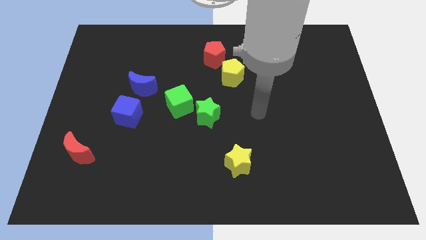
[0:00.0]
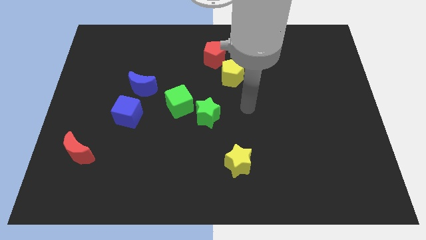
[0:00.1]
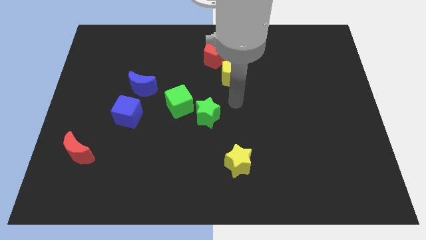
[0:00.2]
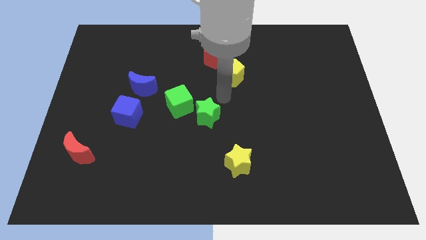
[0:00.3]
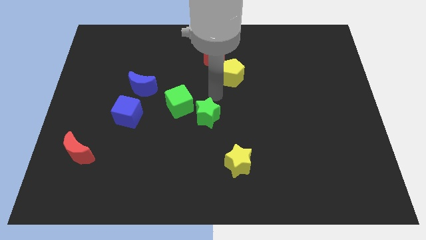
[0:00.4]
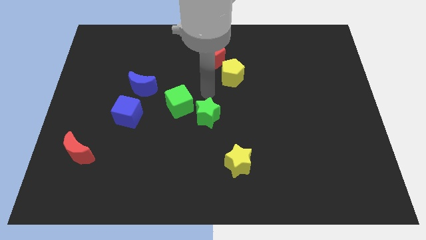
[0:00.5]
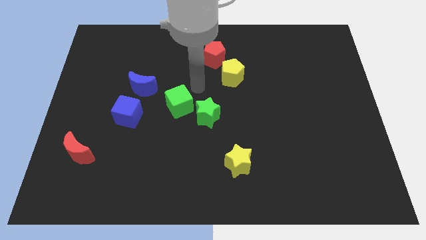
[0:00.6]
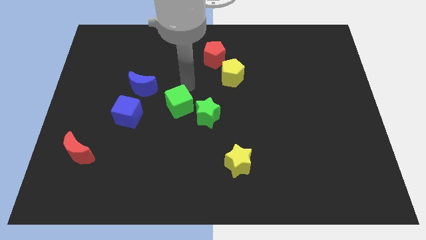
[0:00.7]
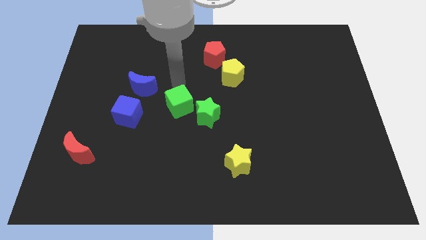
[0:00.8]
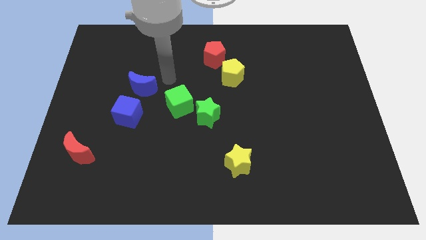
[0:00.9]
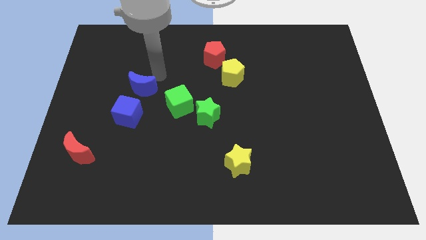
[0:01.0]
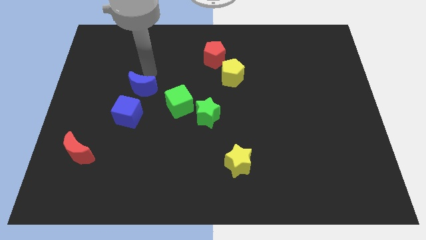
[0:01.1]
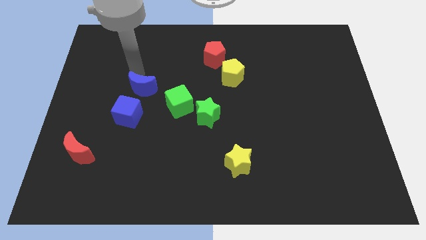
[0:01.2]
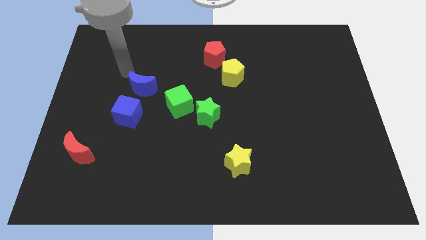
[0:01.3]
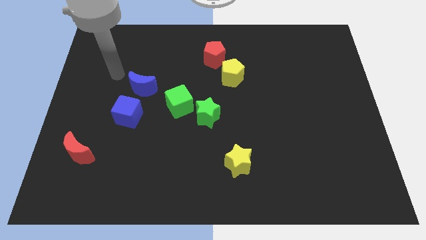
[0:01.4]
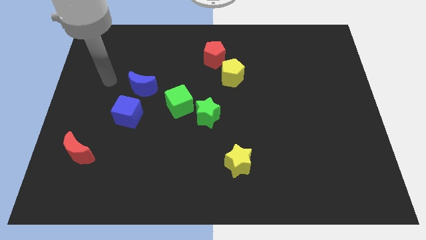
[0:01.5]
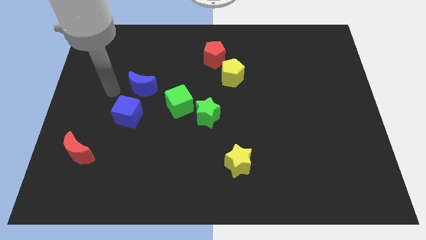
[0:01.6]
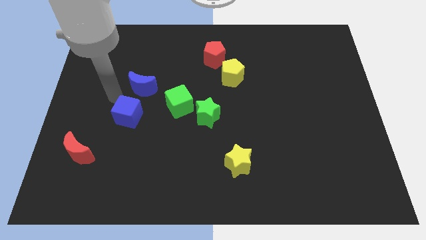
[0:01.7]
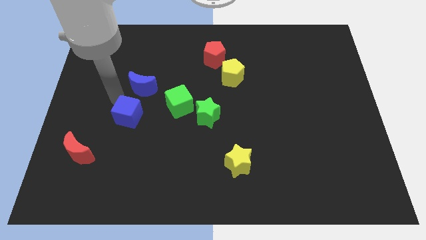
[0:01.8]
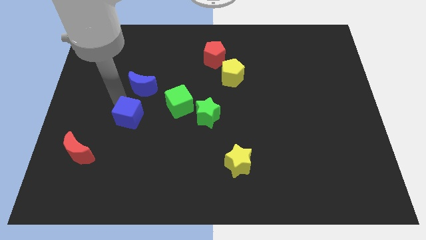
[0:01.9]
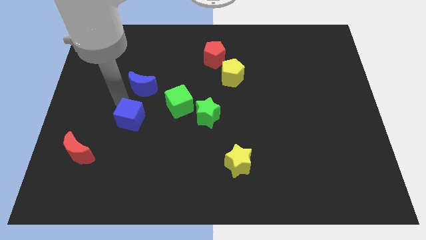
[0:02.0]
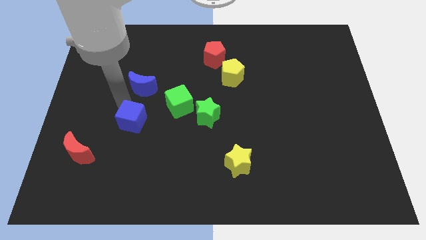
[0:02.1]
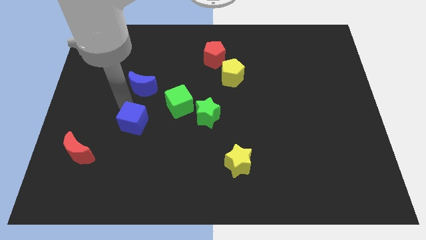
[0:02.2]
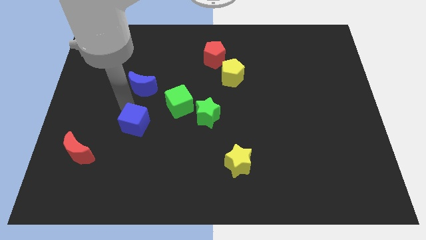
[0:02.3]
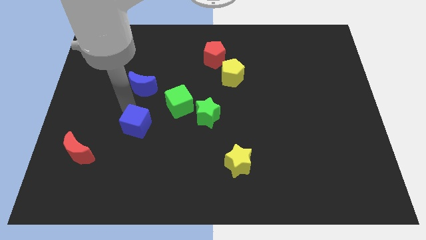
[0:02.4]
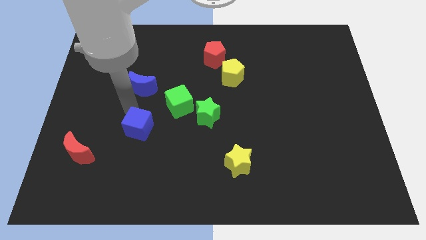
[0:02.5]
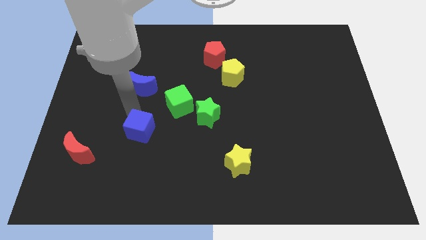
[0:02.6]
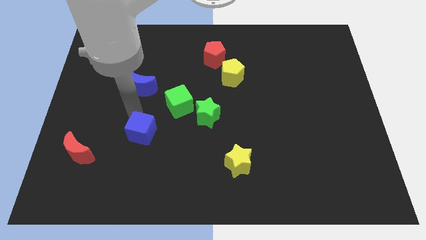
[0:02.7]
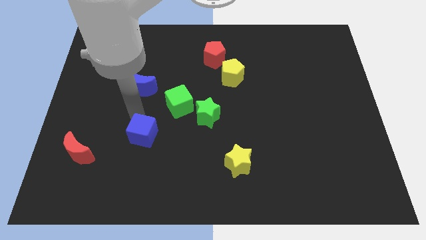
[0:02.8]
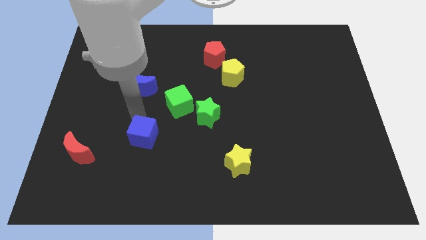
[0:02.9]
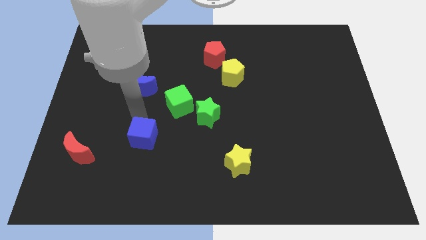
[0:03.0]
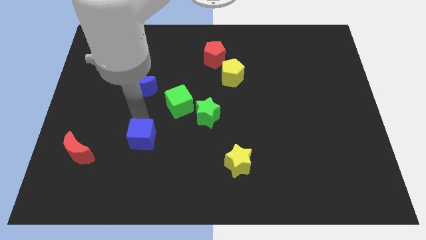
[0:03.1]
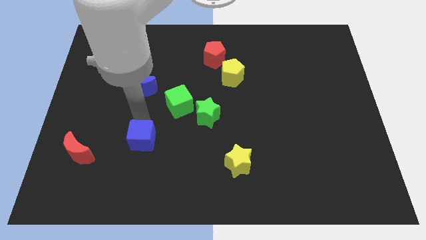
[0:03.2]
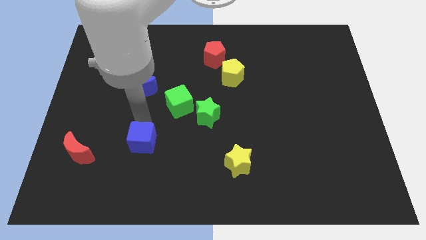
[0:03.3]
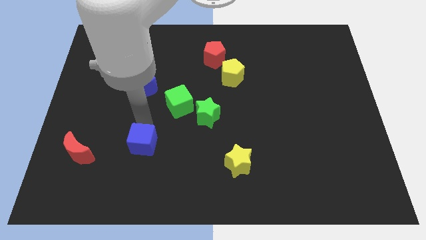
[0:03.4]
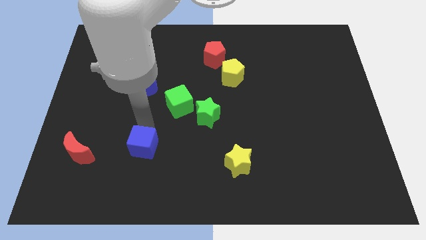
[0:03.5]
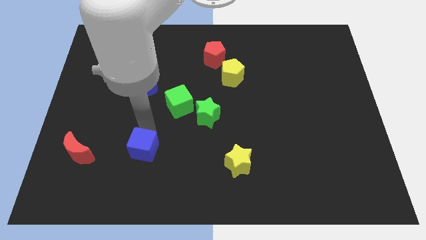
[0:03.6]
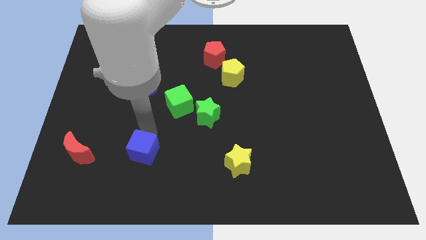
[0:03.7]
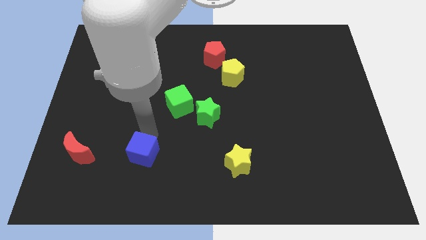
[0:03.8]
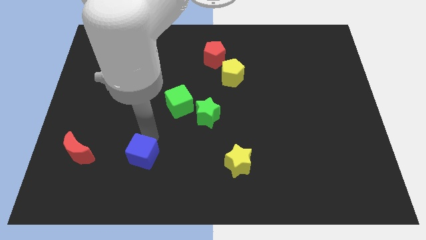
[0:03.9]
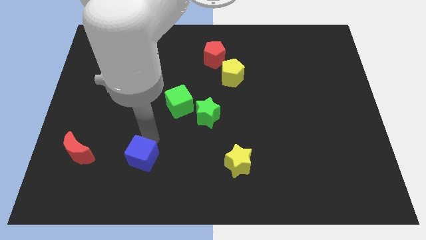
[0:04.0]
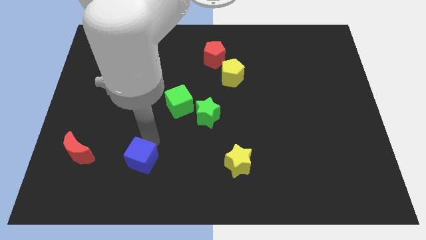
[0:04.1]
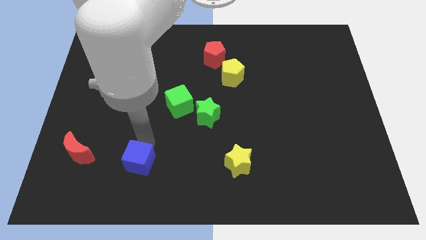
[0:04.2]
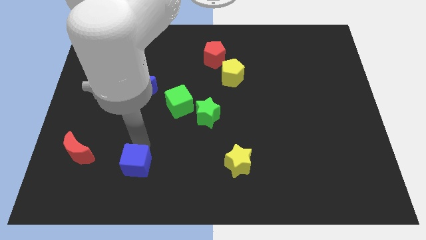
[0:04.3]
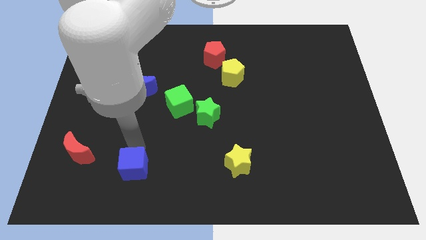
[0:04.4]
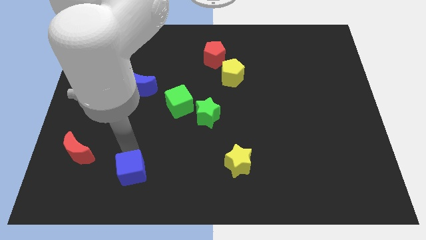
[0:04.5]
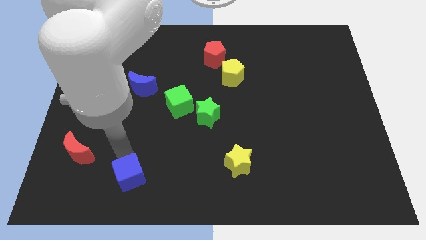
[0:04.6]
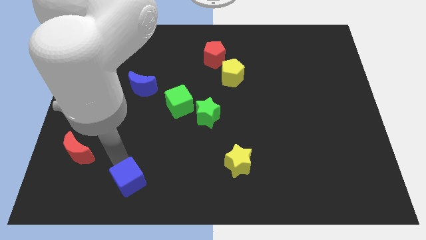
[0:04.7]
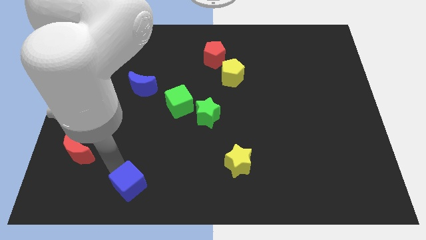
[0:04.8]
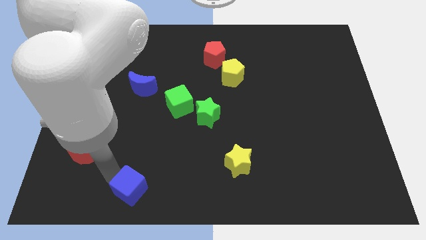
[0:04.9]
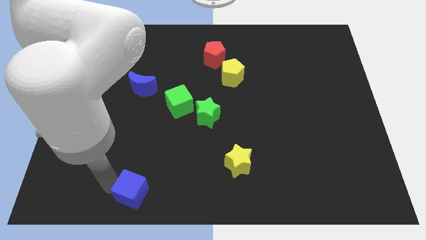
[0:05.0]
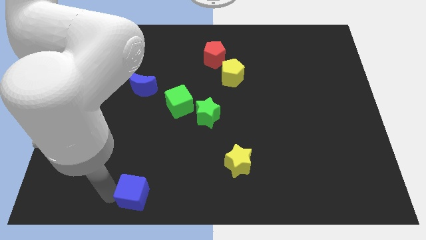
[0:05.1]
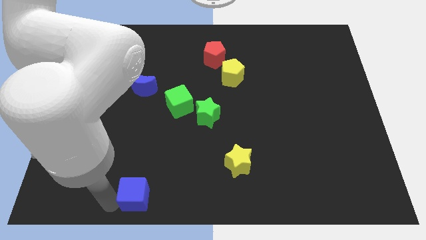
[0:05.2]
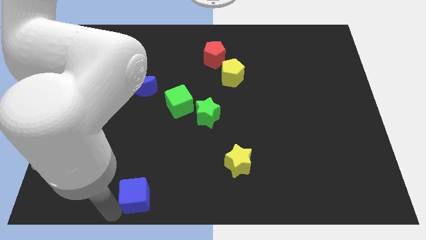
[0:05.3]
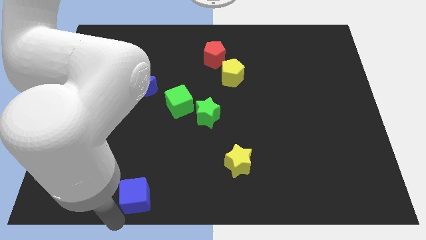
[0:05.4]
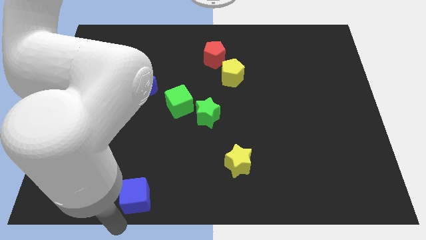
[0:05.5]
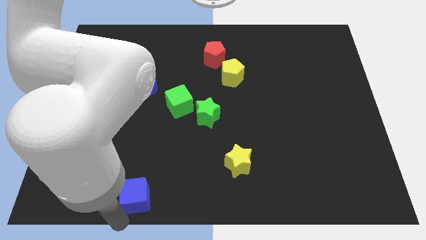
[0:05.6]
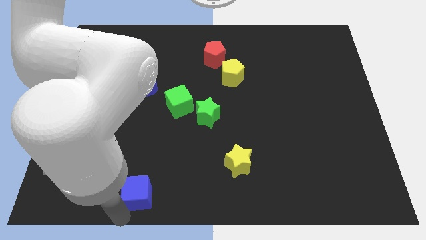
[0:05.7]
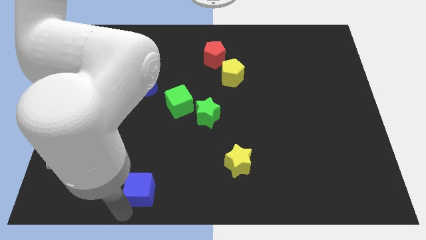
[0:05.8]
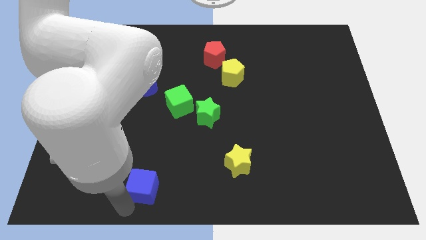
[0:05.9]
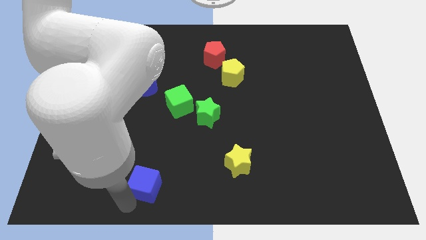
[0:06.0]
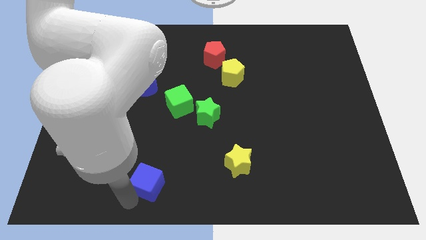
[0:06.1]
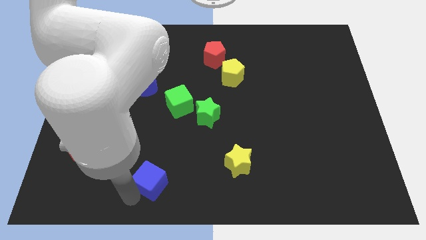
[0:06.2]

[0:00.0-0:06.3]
slide the blue cube to the bottom side

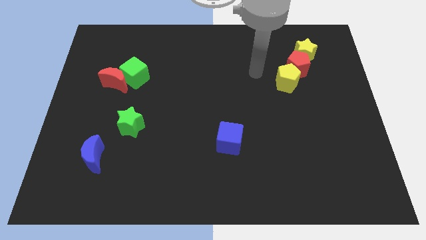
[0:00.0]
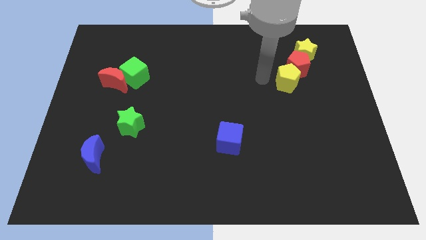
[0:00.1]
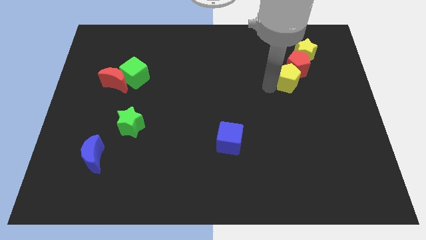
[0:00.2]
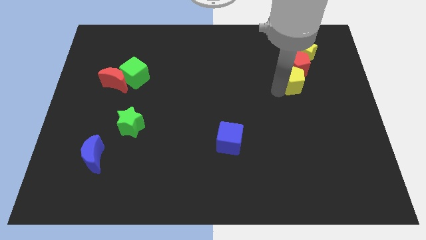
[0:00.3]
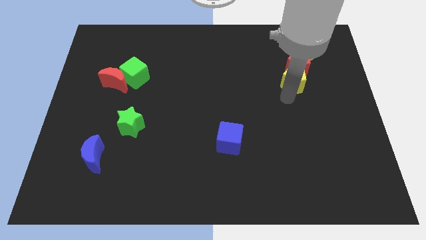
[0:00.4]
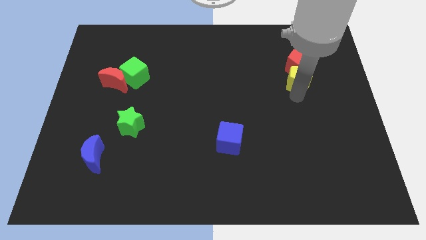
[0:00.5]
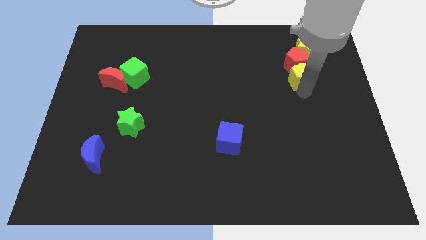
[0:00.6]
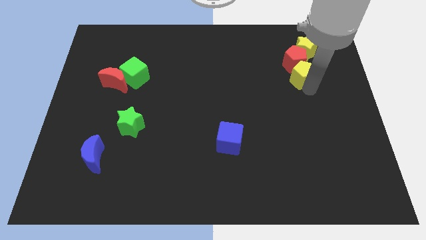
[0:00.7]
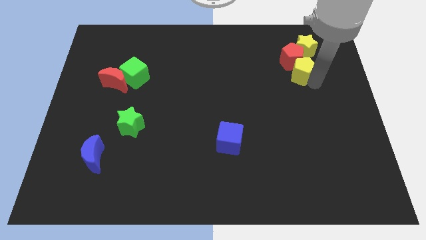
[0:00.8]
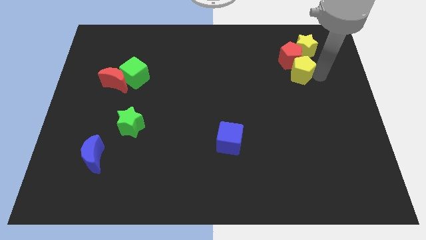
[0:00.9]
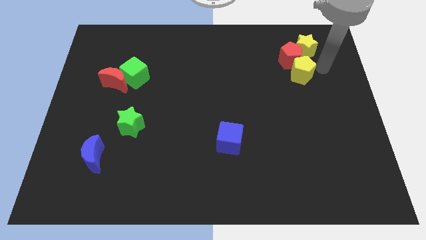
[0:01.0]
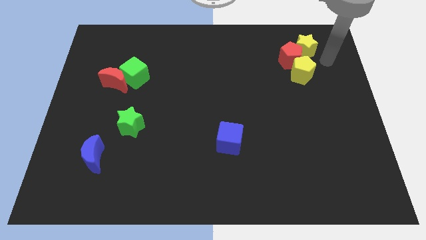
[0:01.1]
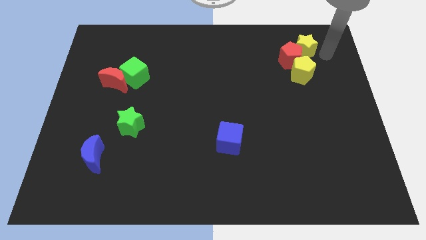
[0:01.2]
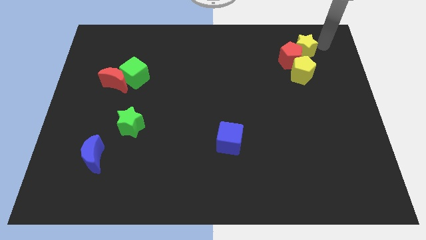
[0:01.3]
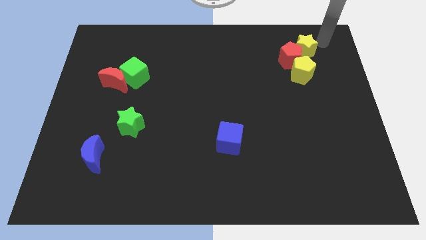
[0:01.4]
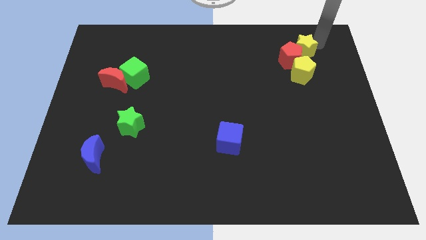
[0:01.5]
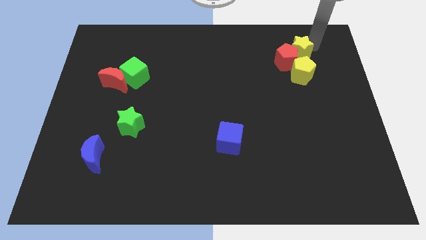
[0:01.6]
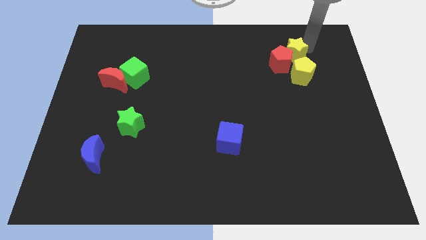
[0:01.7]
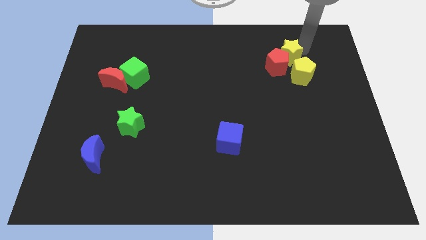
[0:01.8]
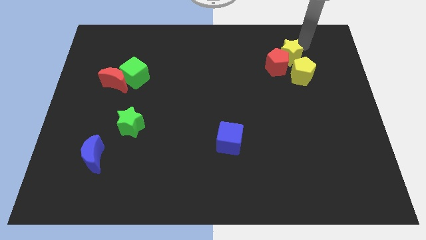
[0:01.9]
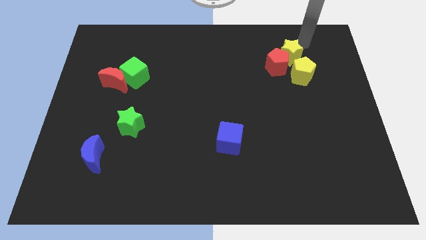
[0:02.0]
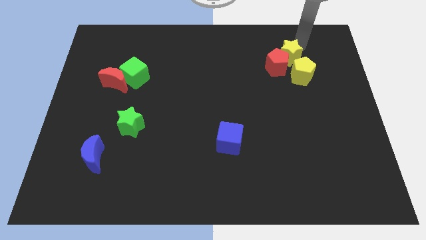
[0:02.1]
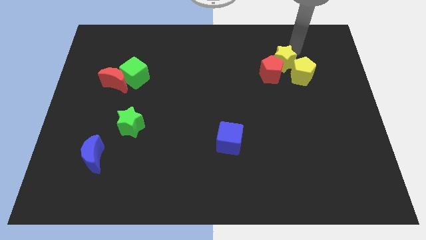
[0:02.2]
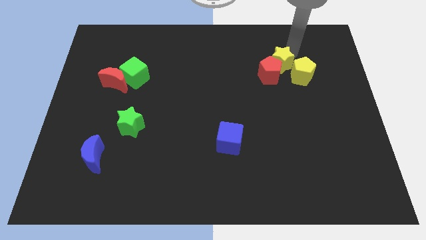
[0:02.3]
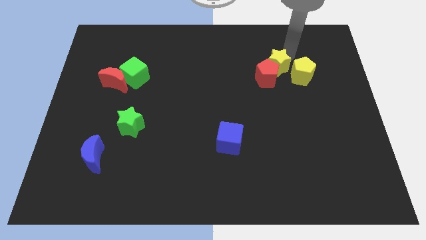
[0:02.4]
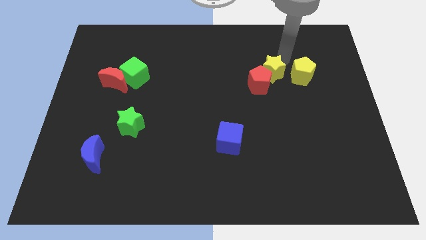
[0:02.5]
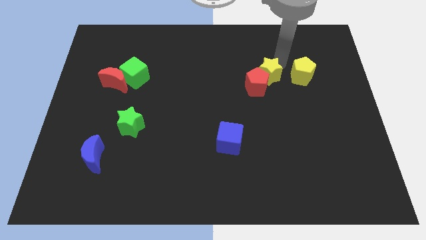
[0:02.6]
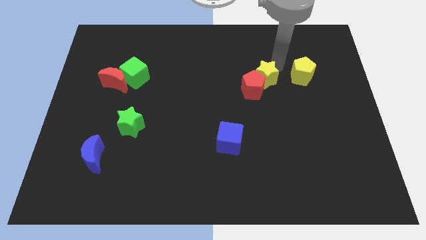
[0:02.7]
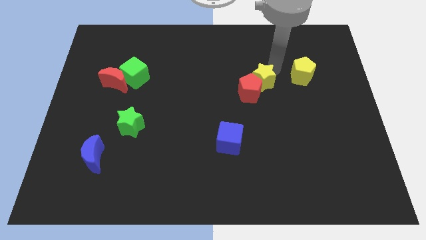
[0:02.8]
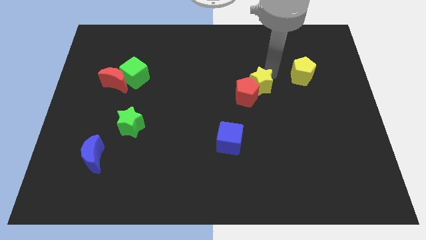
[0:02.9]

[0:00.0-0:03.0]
push the yellow star to the center of the board
